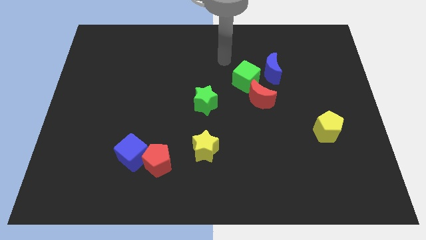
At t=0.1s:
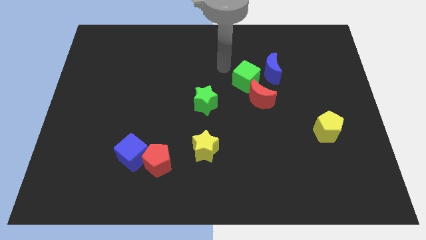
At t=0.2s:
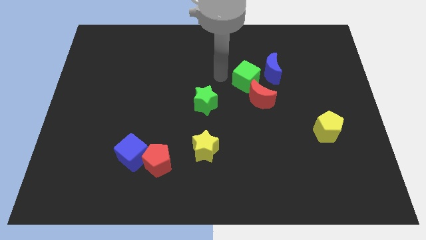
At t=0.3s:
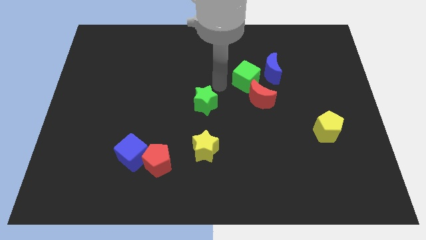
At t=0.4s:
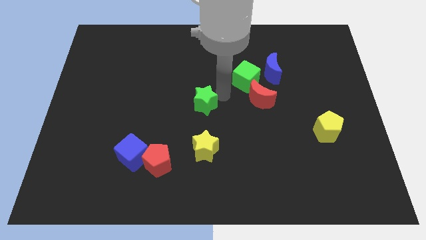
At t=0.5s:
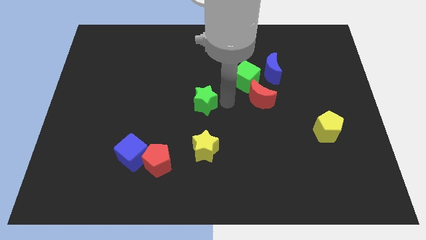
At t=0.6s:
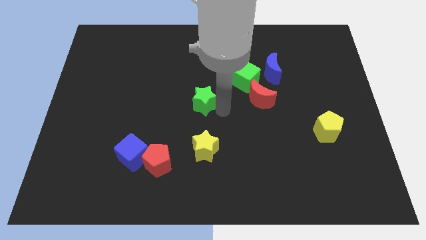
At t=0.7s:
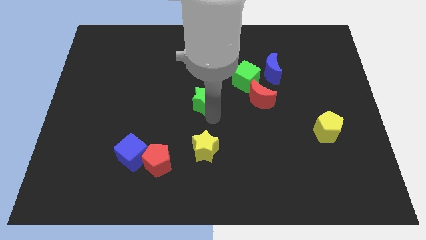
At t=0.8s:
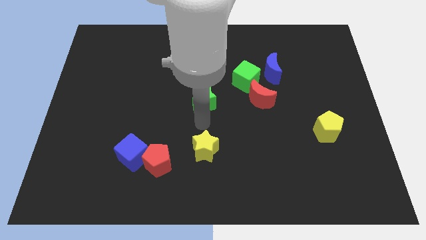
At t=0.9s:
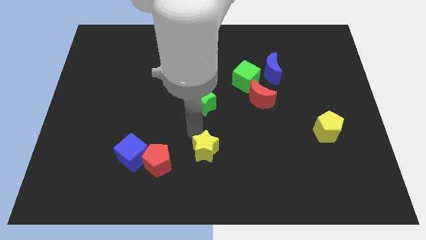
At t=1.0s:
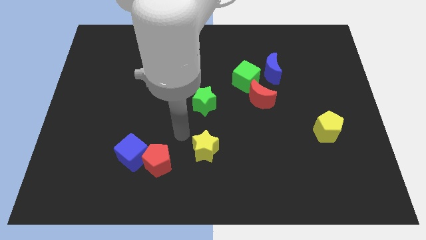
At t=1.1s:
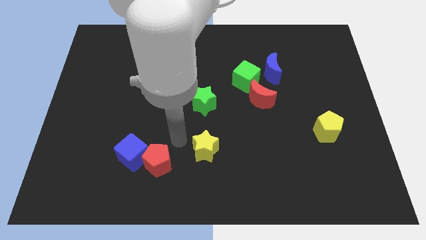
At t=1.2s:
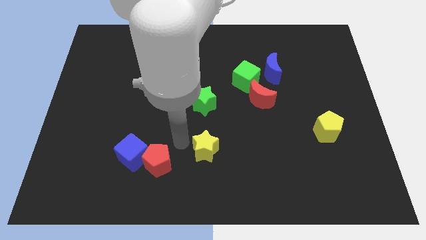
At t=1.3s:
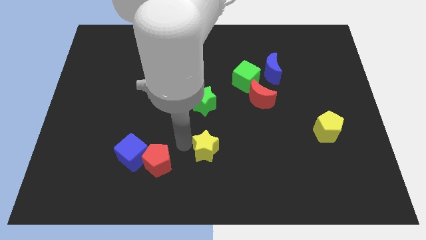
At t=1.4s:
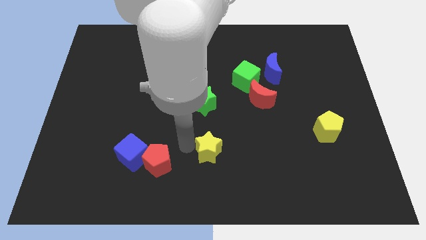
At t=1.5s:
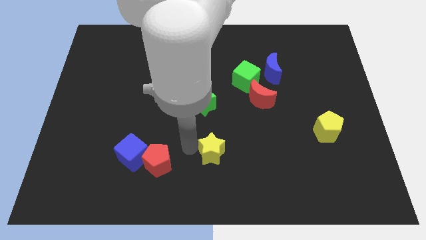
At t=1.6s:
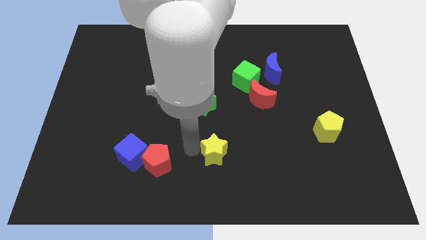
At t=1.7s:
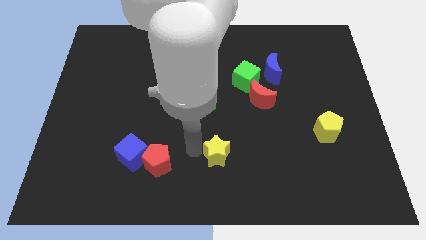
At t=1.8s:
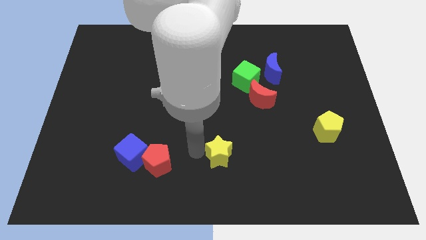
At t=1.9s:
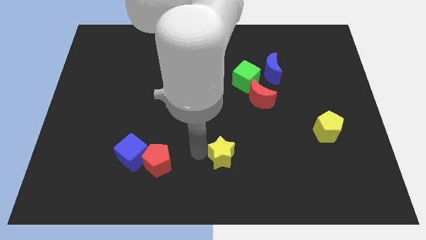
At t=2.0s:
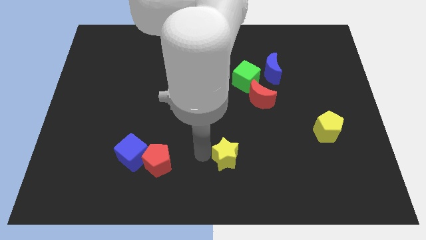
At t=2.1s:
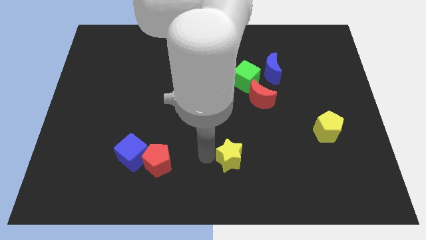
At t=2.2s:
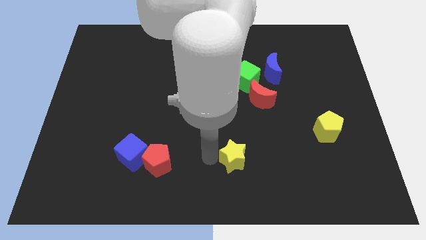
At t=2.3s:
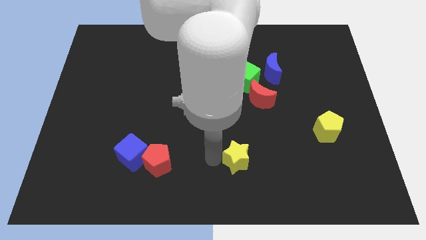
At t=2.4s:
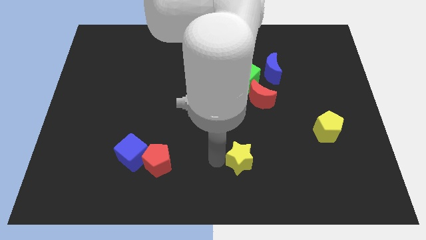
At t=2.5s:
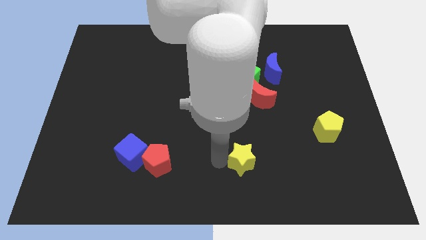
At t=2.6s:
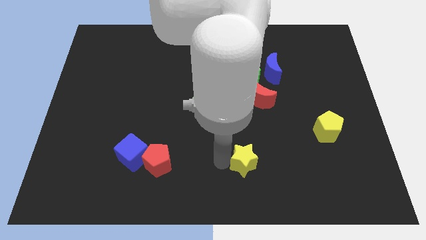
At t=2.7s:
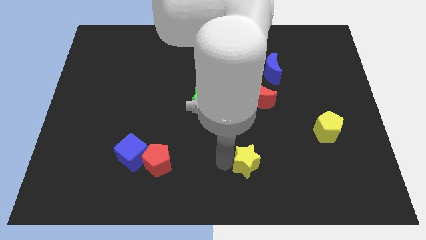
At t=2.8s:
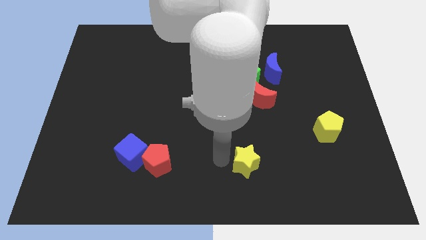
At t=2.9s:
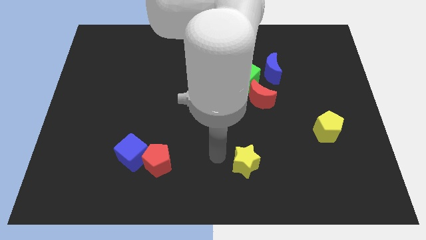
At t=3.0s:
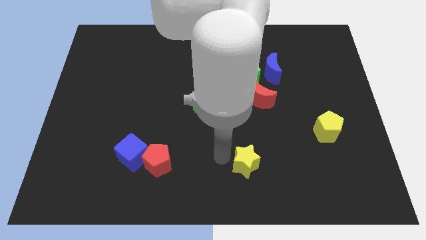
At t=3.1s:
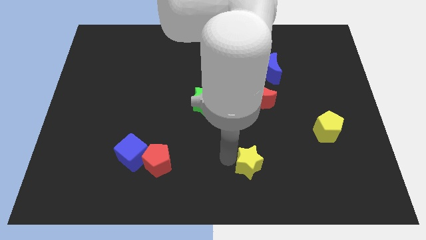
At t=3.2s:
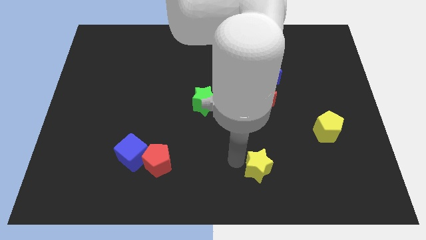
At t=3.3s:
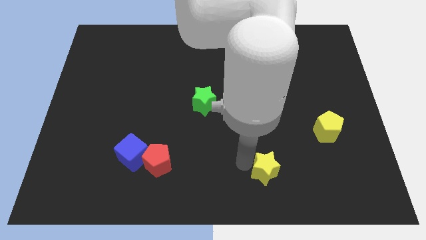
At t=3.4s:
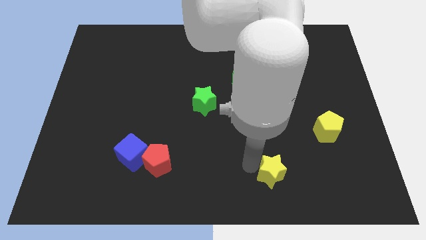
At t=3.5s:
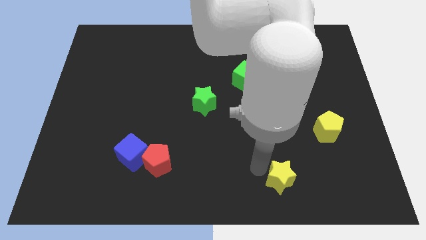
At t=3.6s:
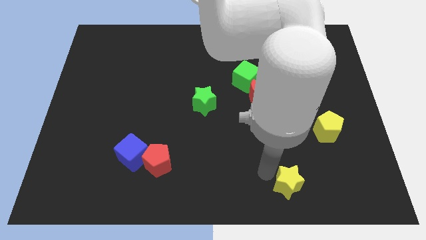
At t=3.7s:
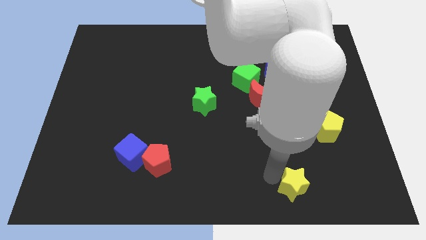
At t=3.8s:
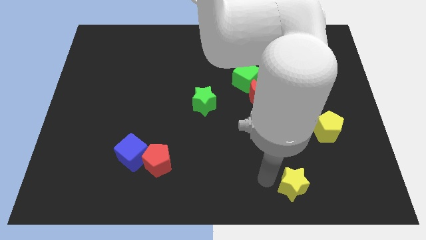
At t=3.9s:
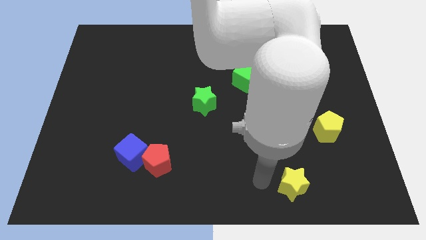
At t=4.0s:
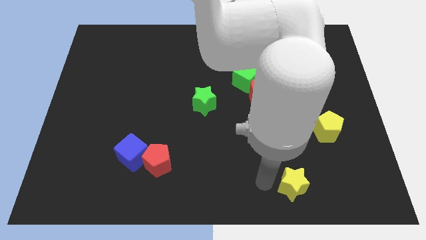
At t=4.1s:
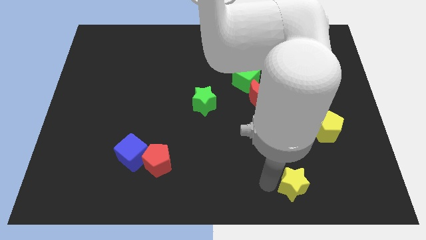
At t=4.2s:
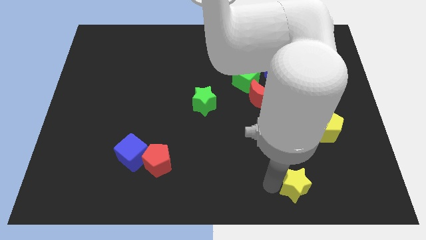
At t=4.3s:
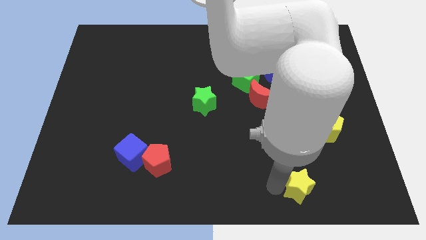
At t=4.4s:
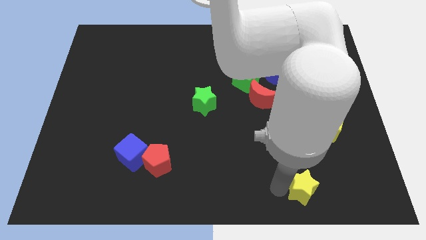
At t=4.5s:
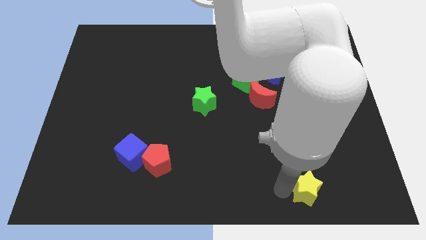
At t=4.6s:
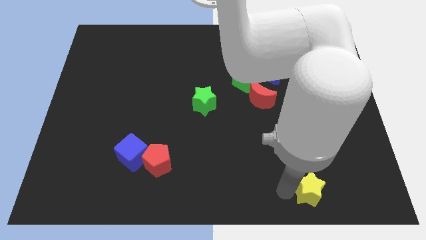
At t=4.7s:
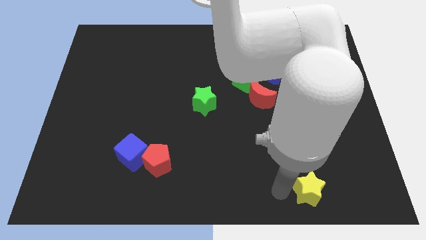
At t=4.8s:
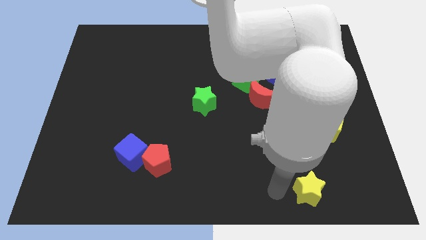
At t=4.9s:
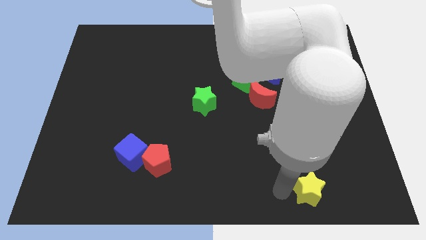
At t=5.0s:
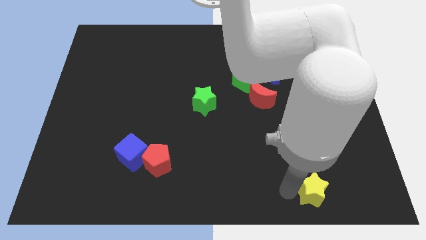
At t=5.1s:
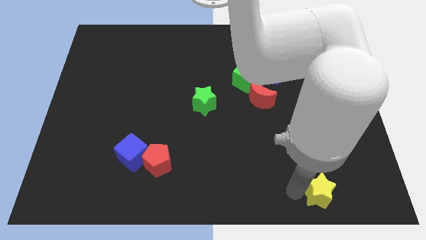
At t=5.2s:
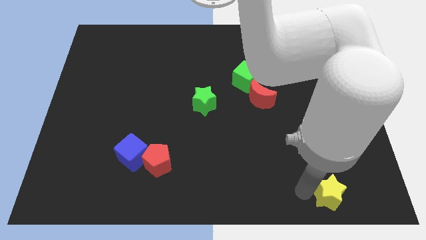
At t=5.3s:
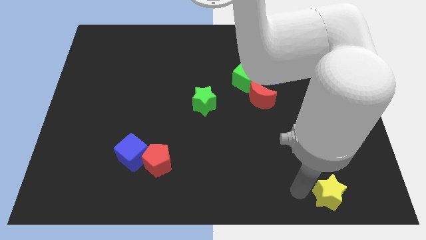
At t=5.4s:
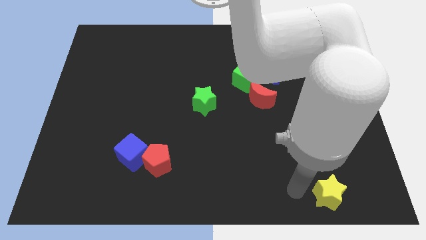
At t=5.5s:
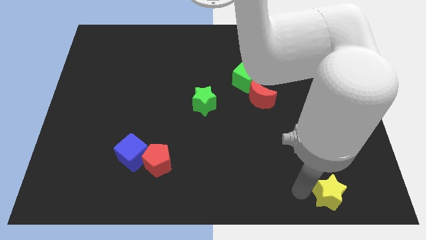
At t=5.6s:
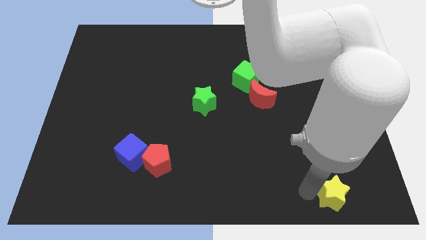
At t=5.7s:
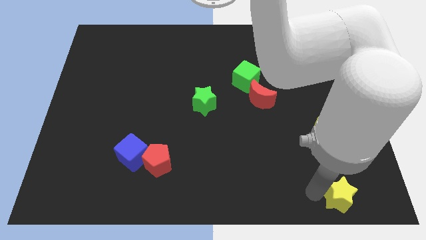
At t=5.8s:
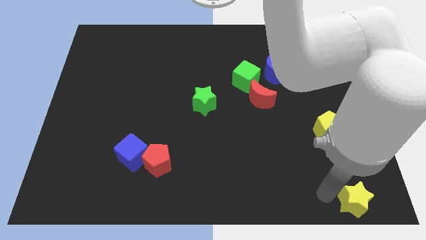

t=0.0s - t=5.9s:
move the yellow star to the bottom right corner

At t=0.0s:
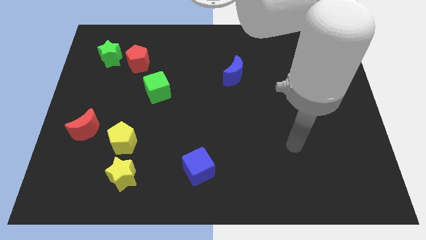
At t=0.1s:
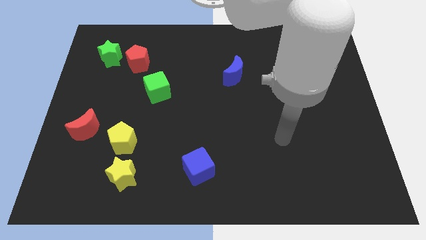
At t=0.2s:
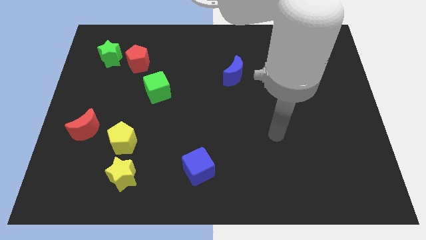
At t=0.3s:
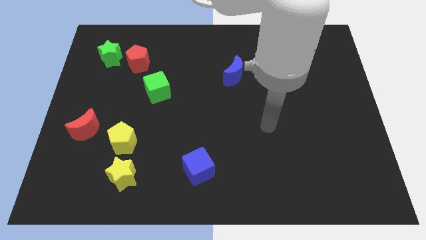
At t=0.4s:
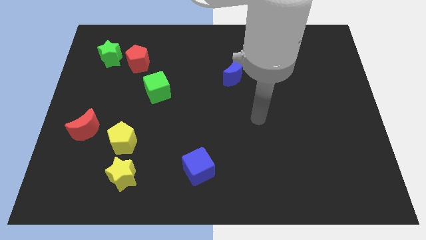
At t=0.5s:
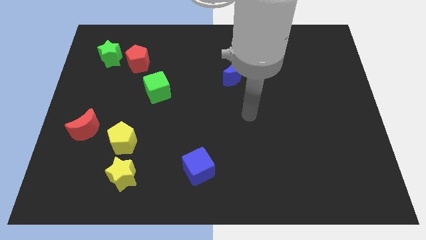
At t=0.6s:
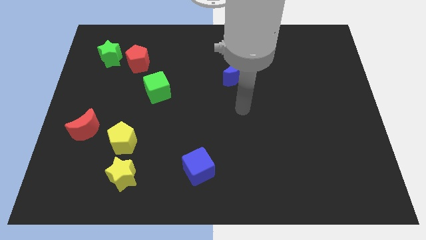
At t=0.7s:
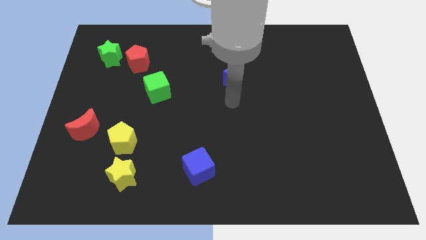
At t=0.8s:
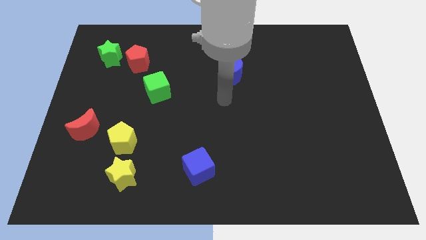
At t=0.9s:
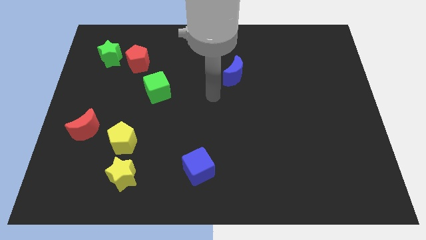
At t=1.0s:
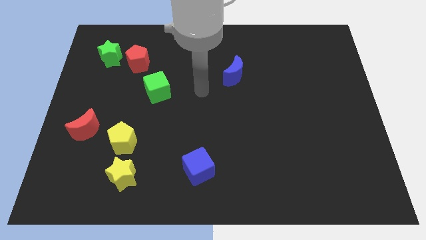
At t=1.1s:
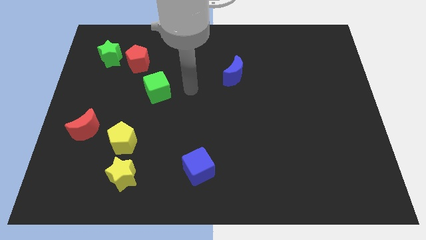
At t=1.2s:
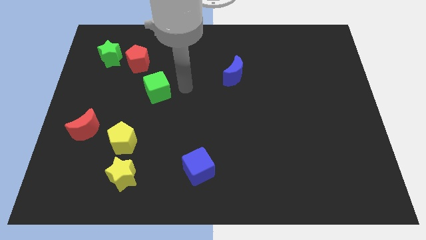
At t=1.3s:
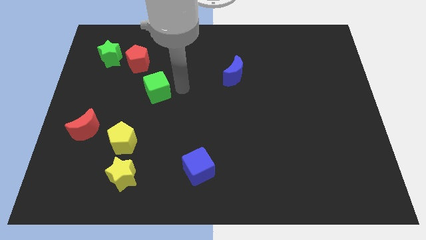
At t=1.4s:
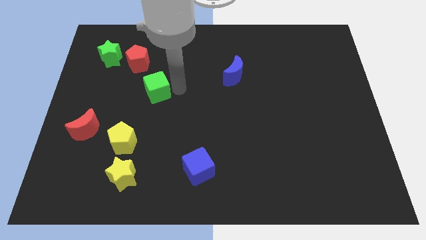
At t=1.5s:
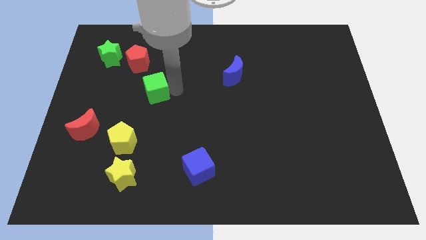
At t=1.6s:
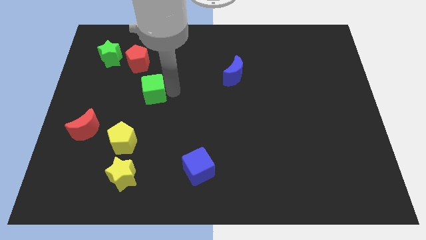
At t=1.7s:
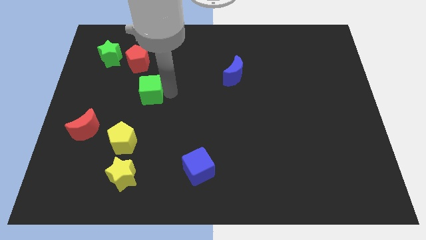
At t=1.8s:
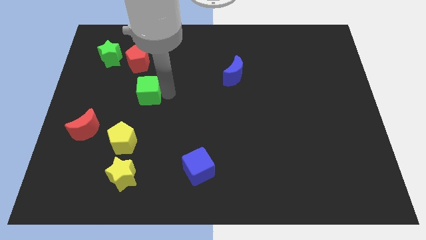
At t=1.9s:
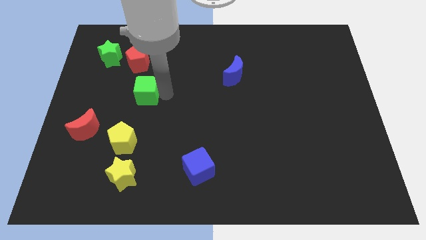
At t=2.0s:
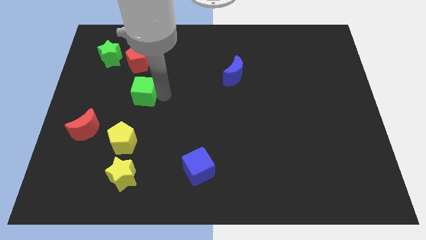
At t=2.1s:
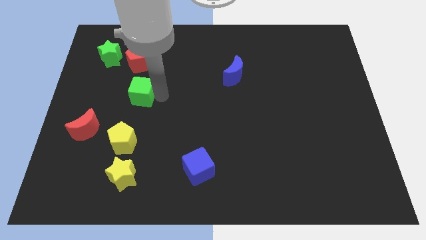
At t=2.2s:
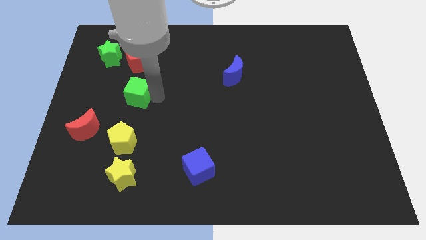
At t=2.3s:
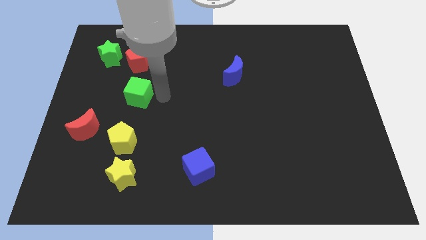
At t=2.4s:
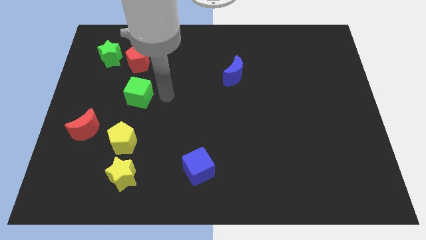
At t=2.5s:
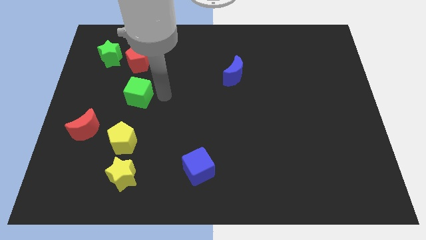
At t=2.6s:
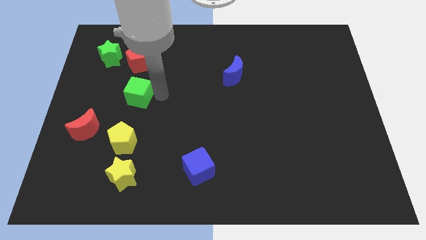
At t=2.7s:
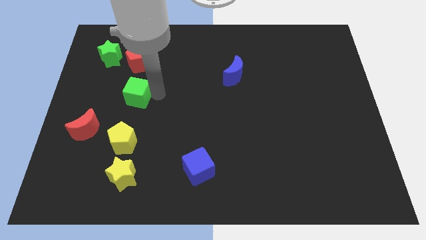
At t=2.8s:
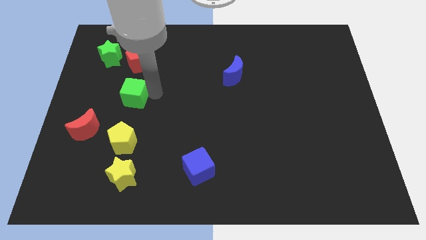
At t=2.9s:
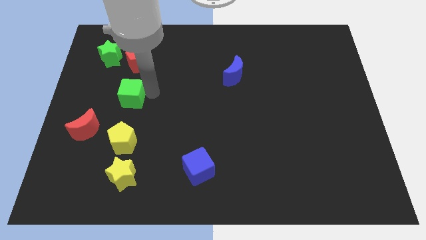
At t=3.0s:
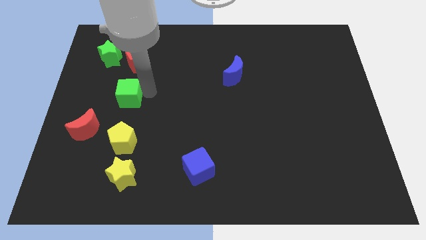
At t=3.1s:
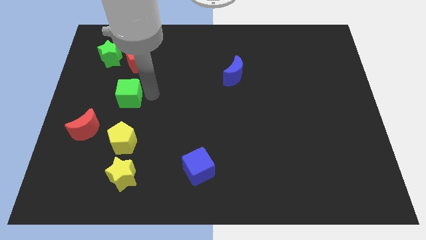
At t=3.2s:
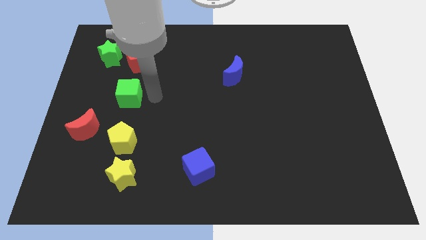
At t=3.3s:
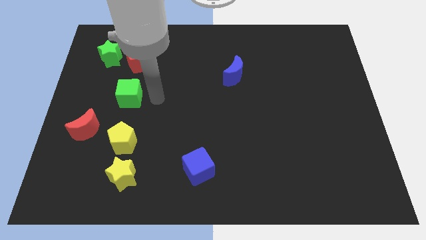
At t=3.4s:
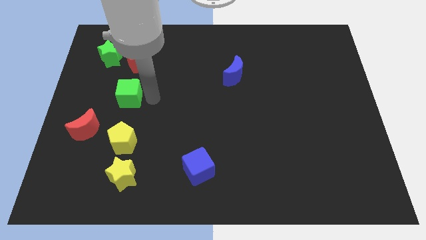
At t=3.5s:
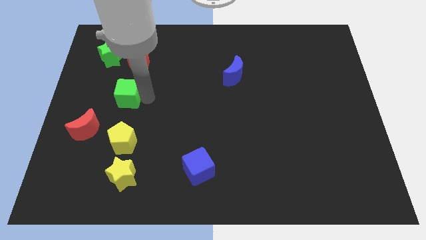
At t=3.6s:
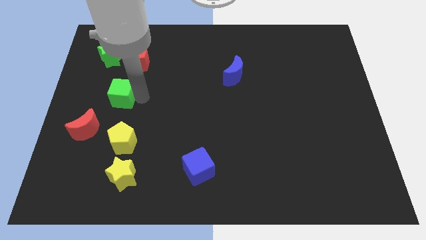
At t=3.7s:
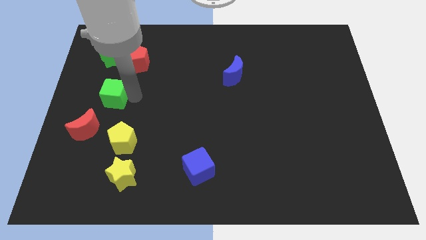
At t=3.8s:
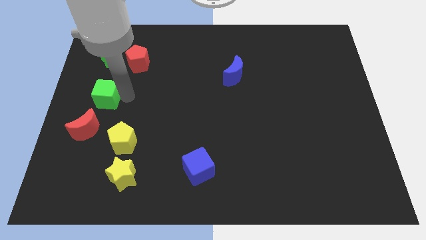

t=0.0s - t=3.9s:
put the green cube to the center left
